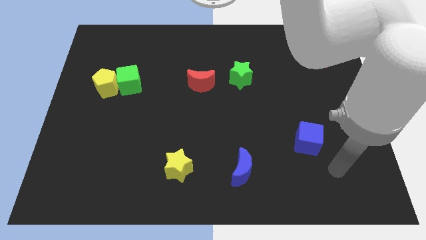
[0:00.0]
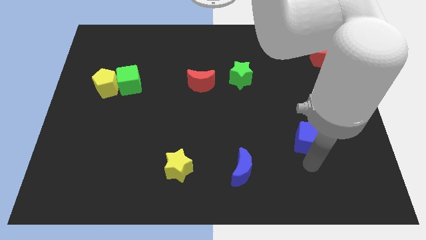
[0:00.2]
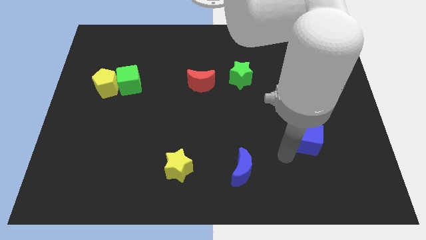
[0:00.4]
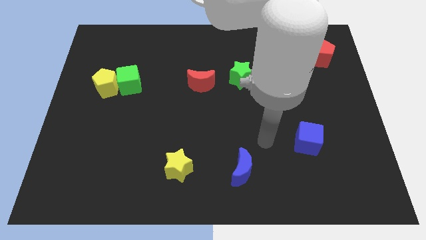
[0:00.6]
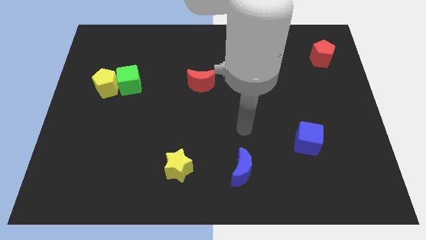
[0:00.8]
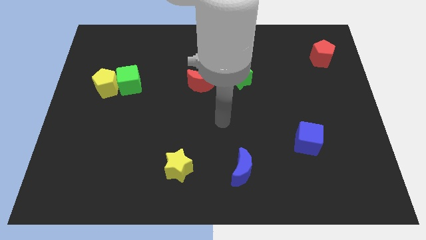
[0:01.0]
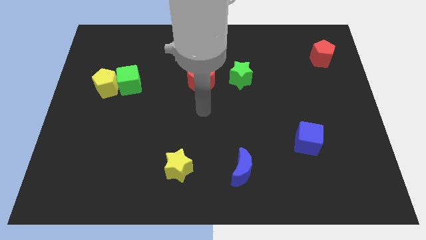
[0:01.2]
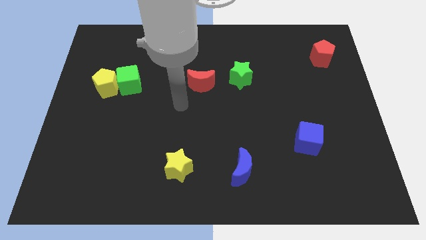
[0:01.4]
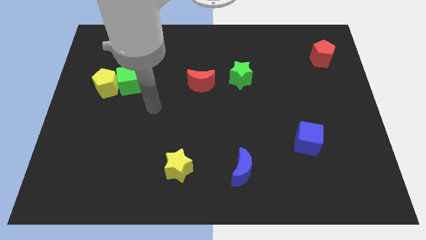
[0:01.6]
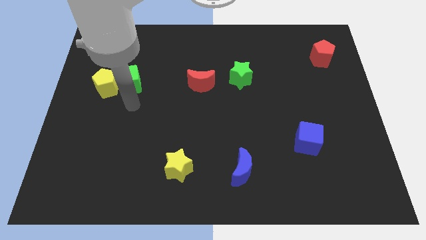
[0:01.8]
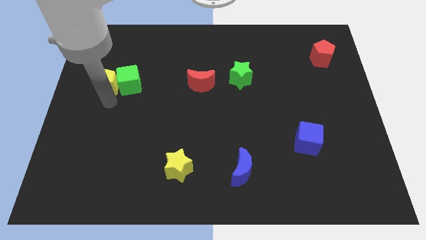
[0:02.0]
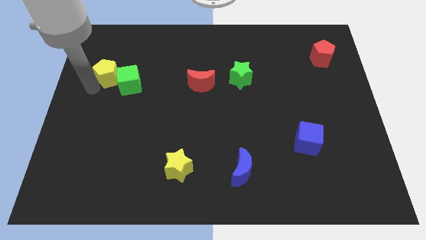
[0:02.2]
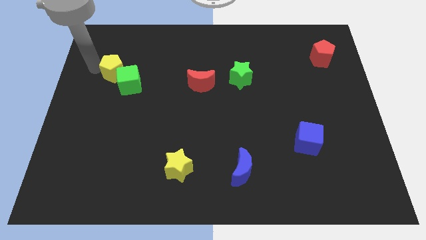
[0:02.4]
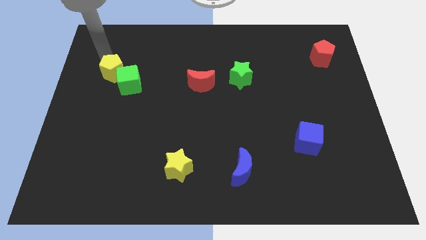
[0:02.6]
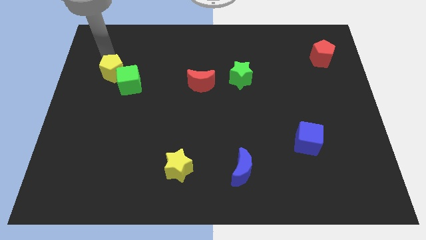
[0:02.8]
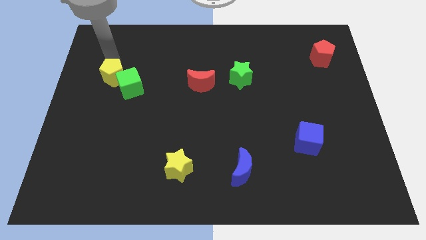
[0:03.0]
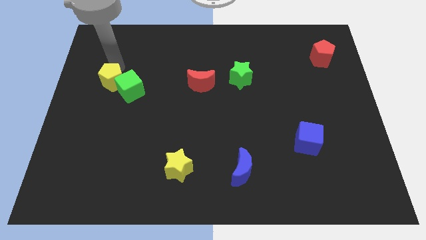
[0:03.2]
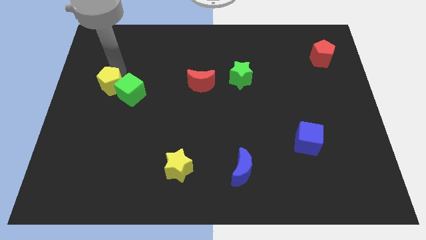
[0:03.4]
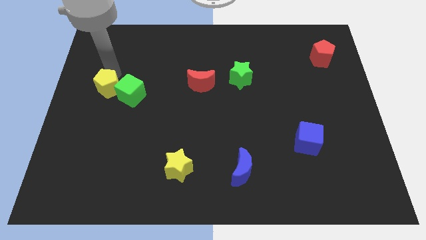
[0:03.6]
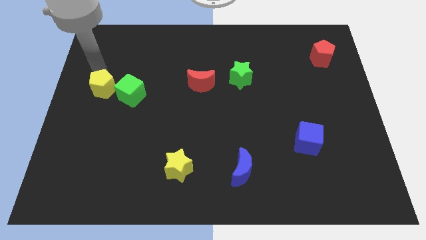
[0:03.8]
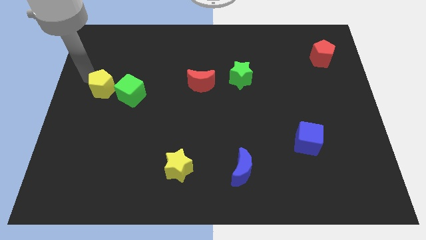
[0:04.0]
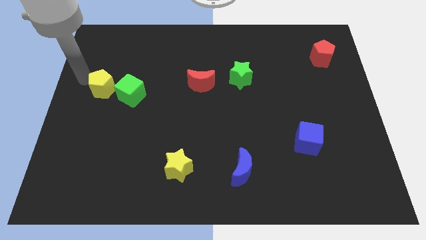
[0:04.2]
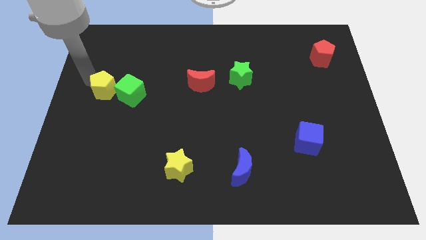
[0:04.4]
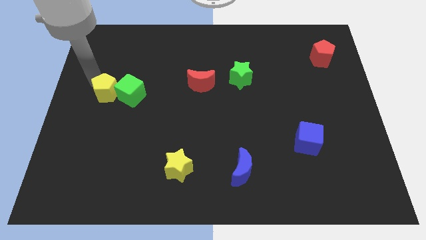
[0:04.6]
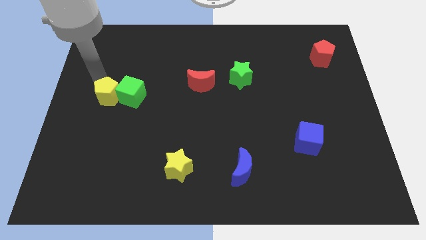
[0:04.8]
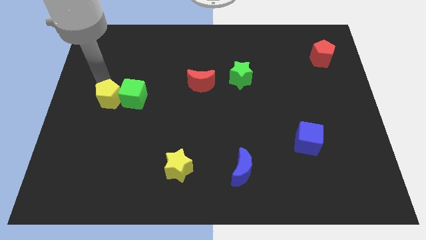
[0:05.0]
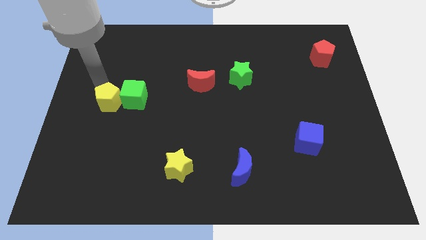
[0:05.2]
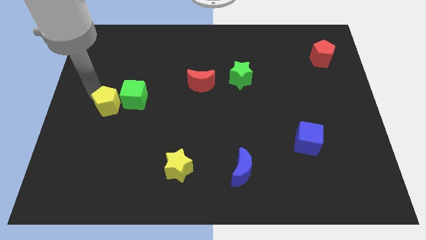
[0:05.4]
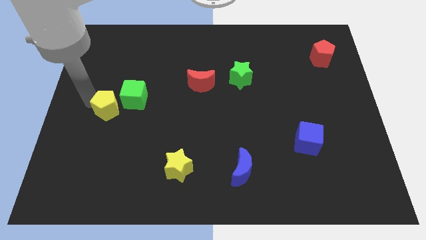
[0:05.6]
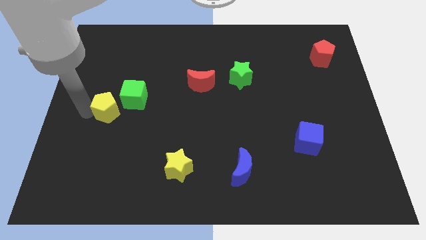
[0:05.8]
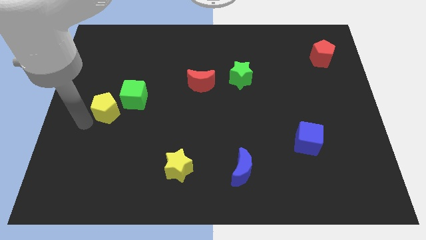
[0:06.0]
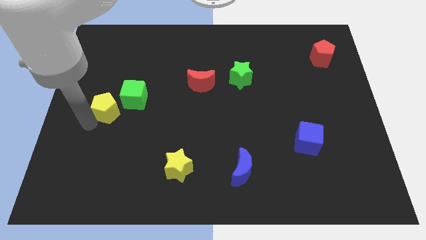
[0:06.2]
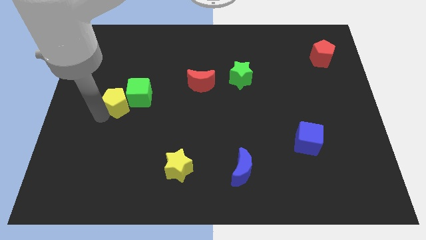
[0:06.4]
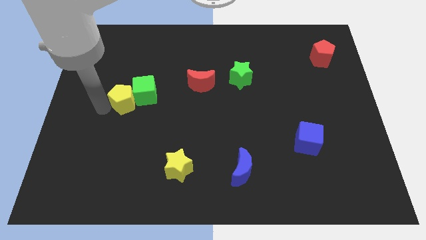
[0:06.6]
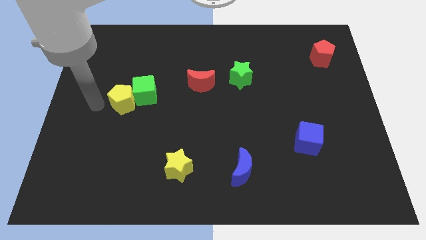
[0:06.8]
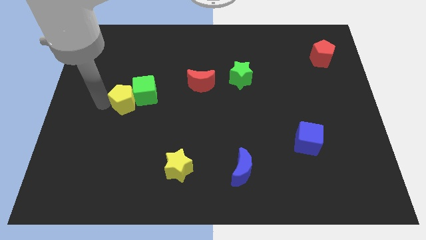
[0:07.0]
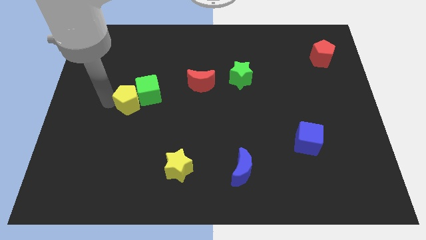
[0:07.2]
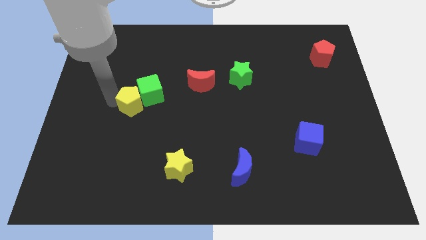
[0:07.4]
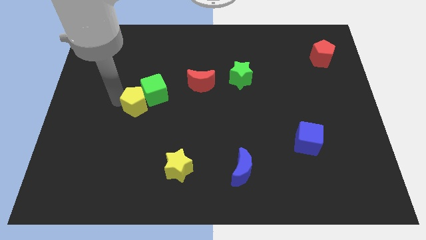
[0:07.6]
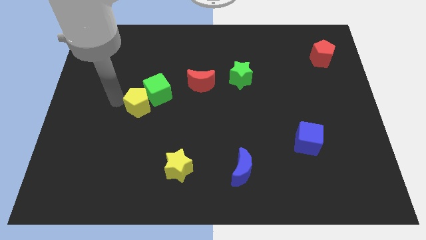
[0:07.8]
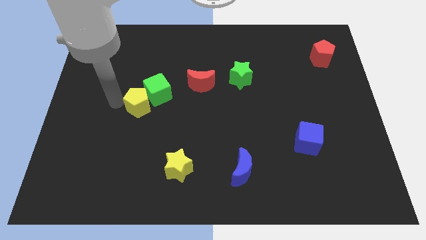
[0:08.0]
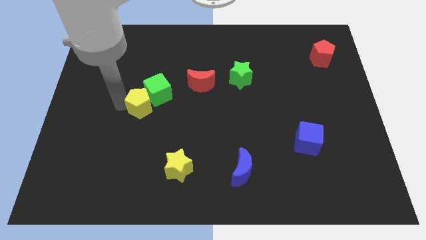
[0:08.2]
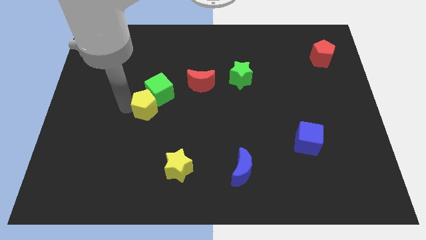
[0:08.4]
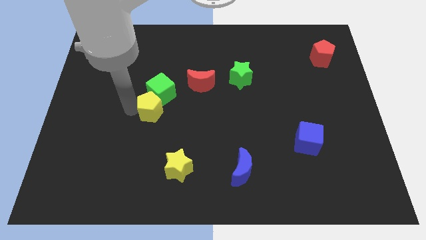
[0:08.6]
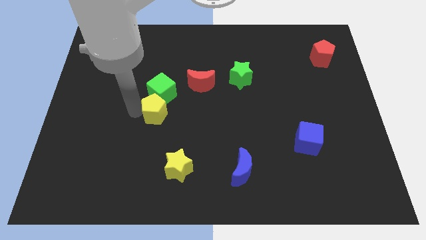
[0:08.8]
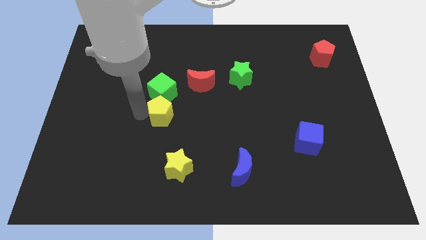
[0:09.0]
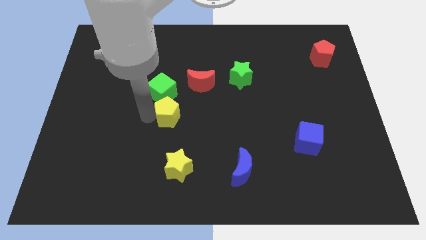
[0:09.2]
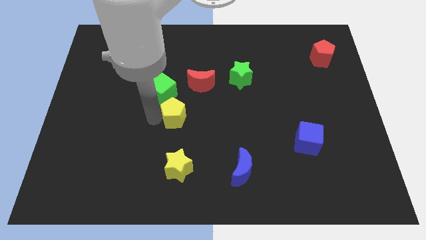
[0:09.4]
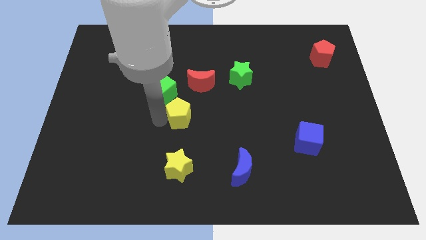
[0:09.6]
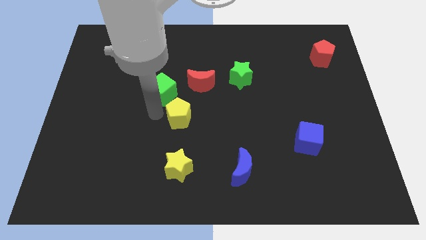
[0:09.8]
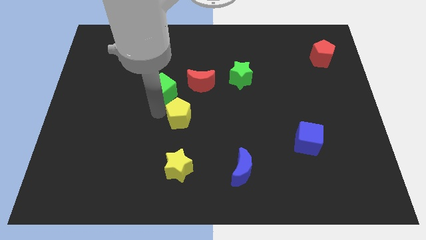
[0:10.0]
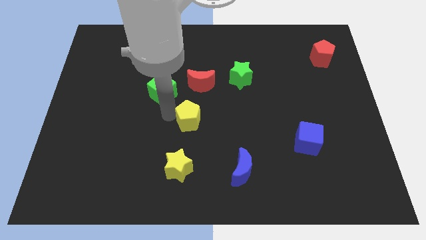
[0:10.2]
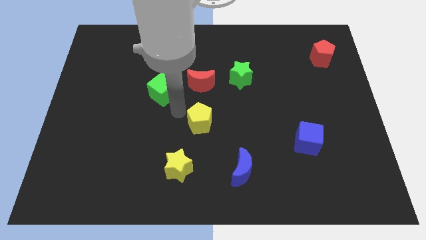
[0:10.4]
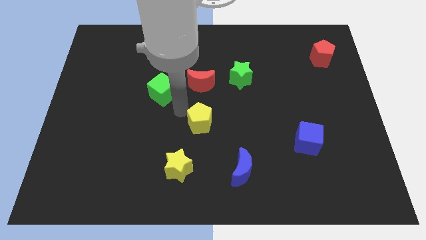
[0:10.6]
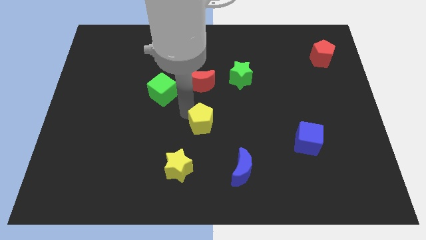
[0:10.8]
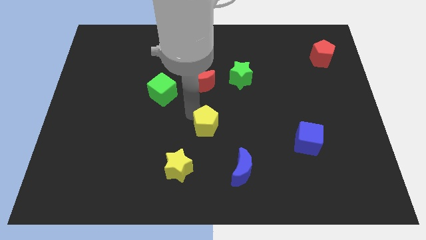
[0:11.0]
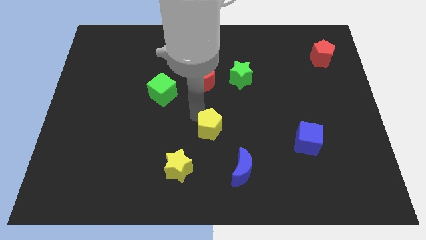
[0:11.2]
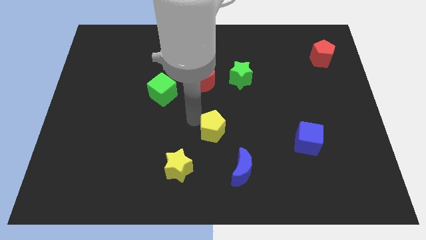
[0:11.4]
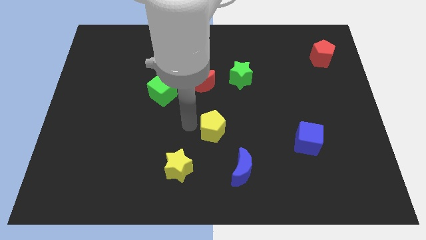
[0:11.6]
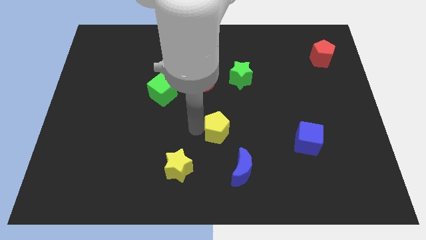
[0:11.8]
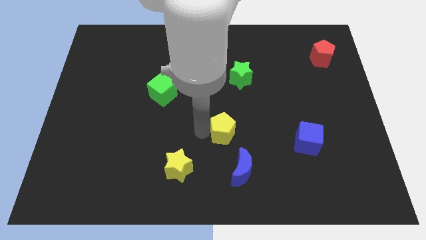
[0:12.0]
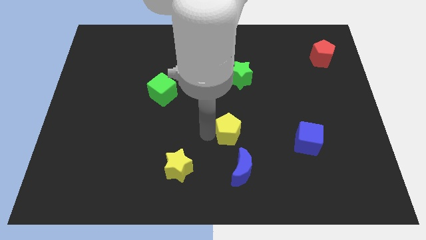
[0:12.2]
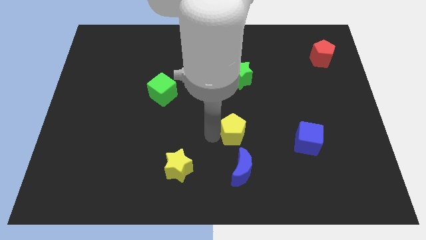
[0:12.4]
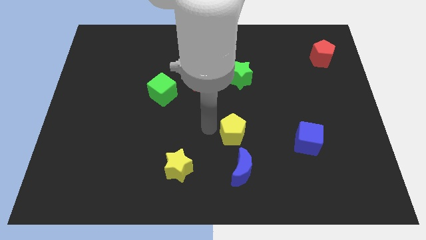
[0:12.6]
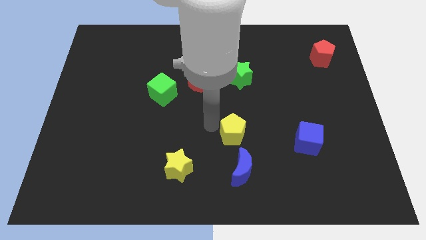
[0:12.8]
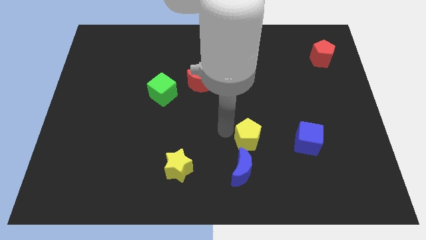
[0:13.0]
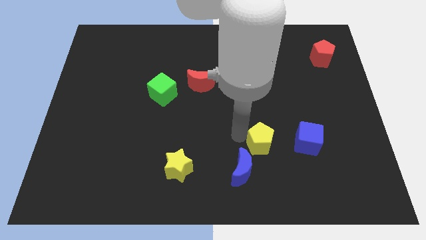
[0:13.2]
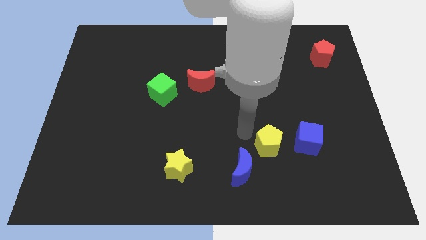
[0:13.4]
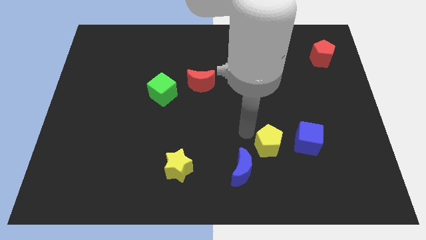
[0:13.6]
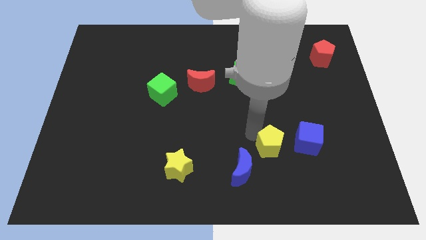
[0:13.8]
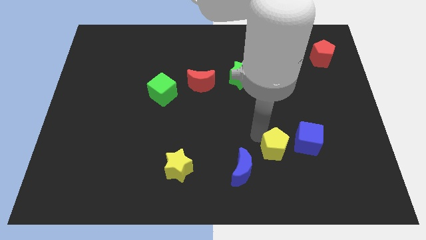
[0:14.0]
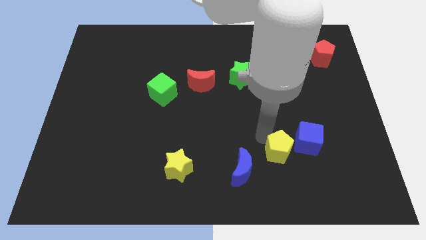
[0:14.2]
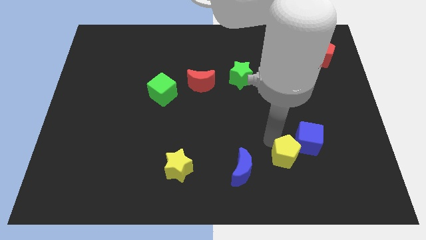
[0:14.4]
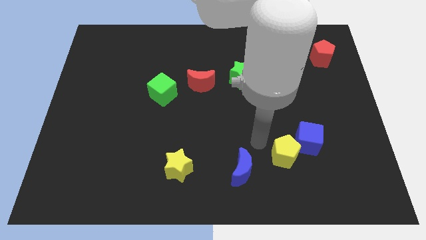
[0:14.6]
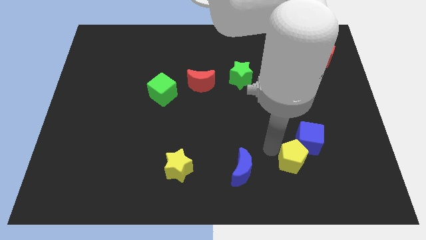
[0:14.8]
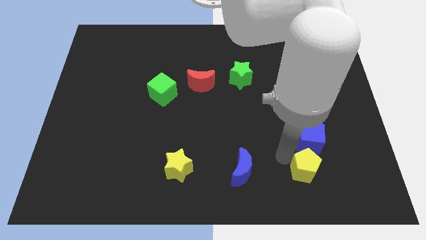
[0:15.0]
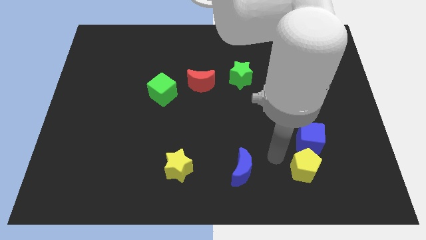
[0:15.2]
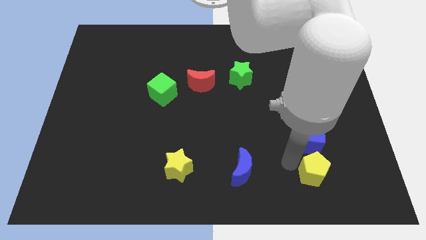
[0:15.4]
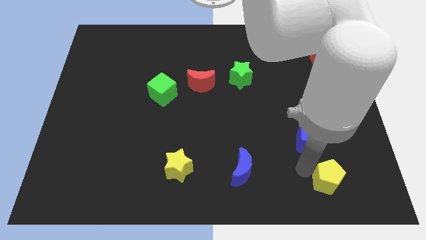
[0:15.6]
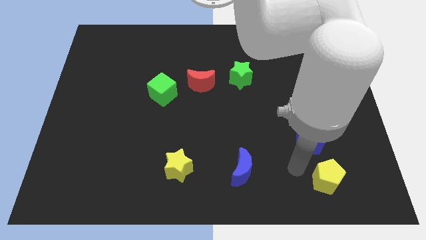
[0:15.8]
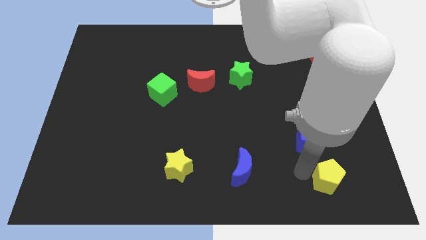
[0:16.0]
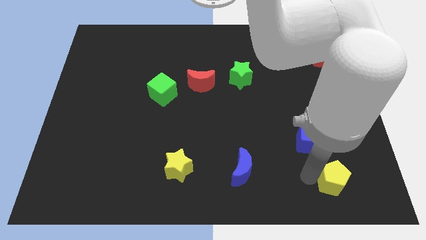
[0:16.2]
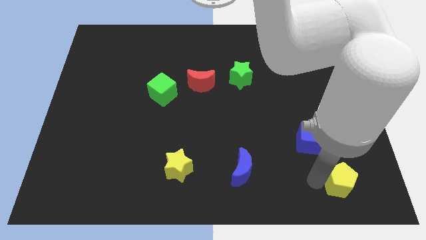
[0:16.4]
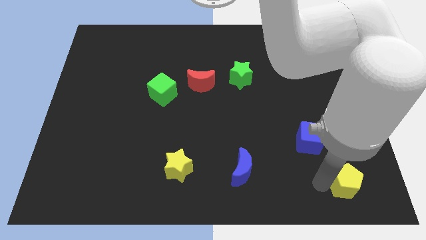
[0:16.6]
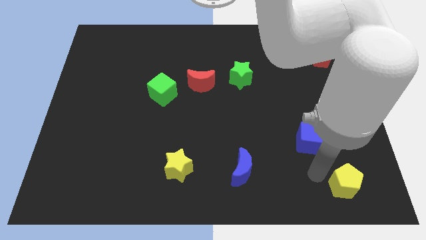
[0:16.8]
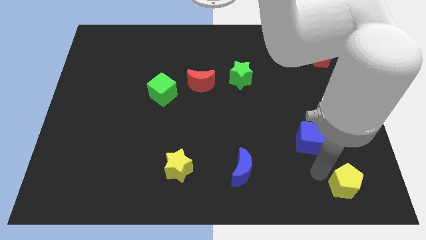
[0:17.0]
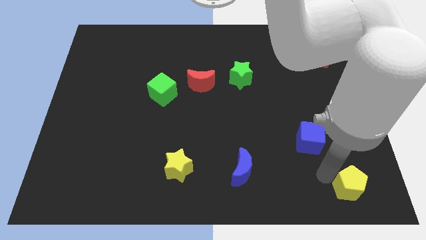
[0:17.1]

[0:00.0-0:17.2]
put the yellow pentagon to the bottom right corner
